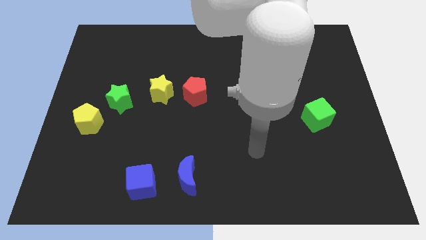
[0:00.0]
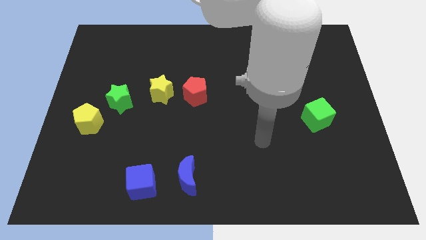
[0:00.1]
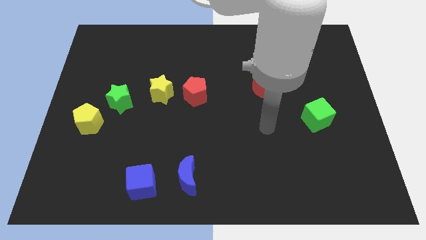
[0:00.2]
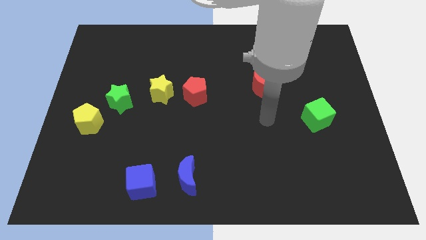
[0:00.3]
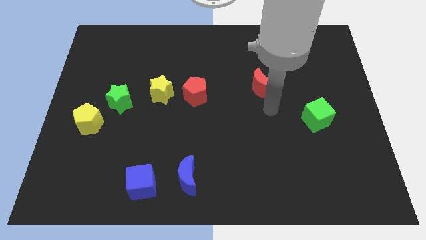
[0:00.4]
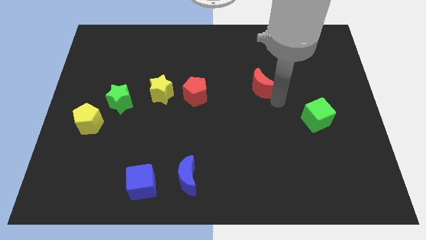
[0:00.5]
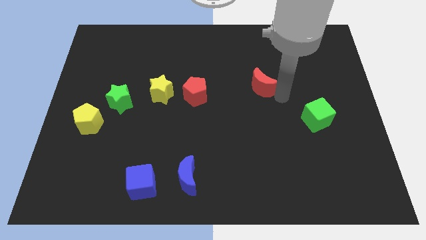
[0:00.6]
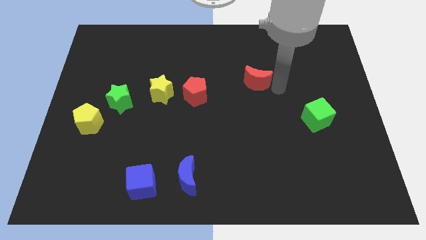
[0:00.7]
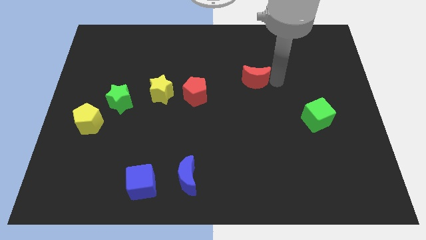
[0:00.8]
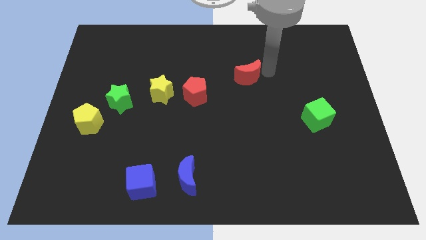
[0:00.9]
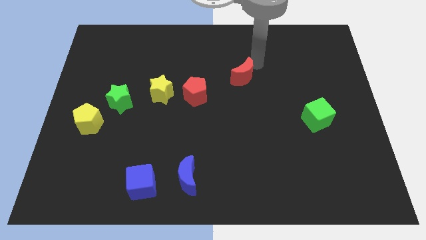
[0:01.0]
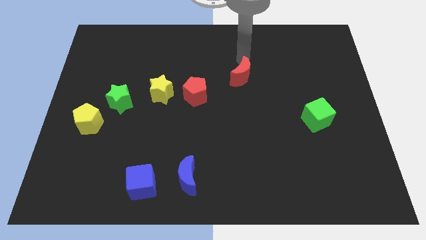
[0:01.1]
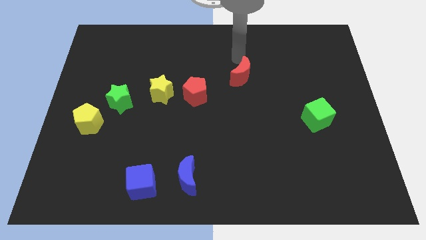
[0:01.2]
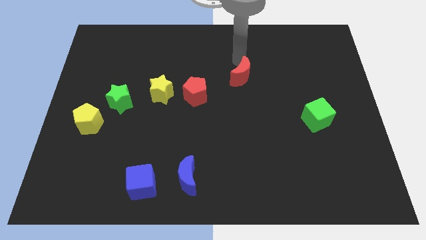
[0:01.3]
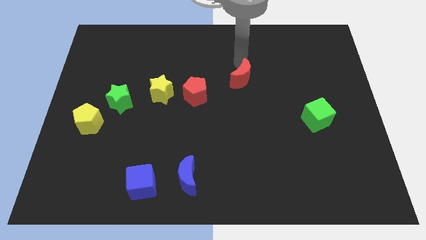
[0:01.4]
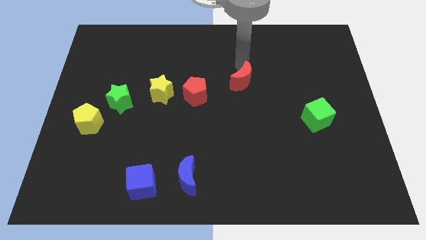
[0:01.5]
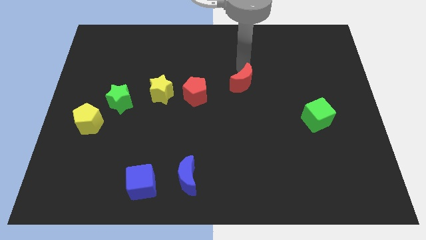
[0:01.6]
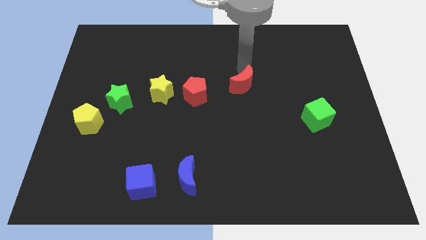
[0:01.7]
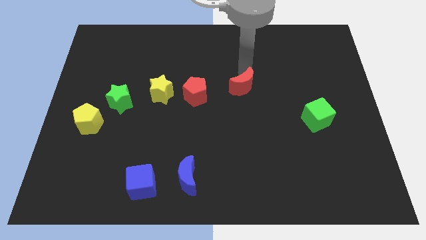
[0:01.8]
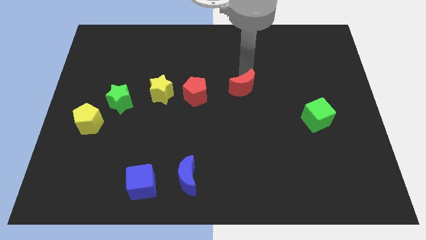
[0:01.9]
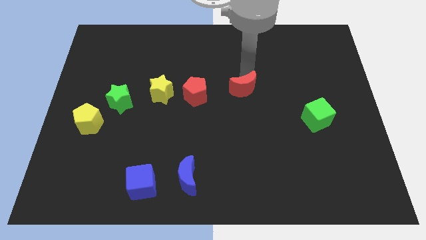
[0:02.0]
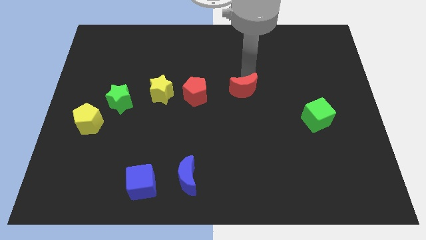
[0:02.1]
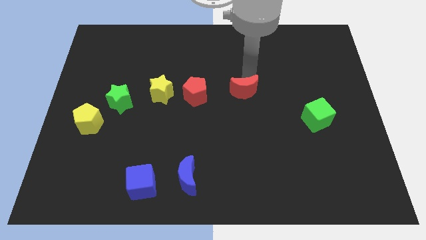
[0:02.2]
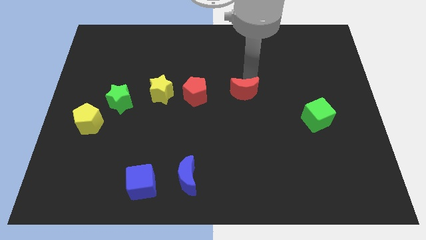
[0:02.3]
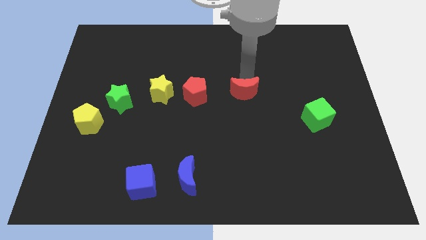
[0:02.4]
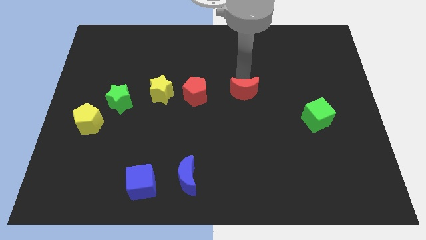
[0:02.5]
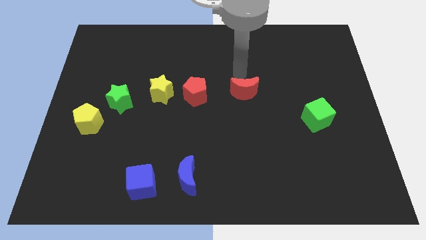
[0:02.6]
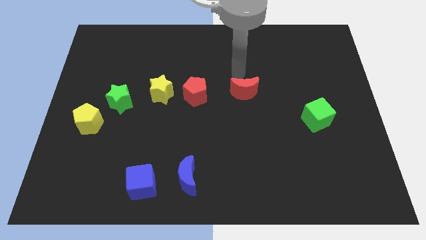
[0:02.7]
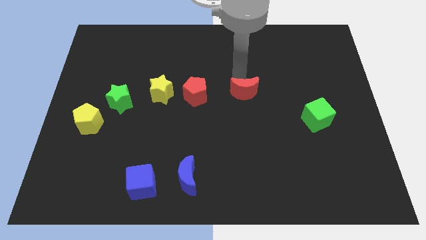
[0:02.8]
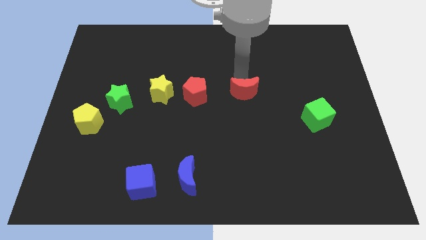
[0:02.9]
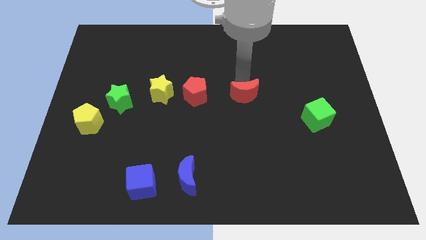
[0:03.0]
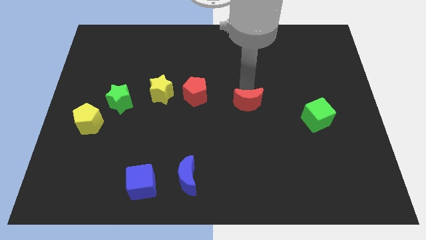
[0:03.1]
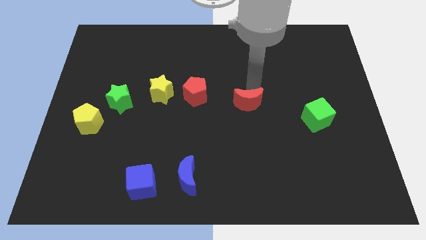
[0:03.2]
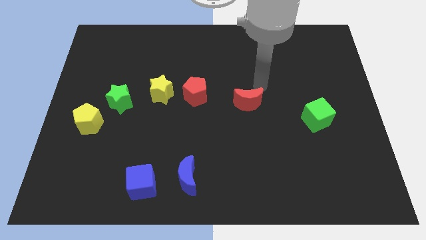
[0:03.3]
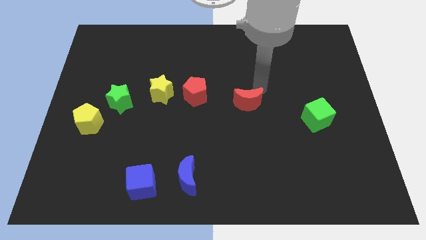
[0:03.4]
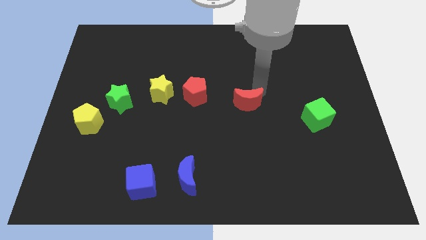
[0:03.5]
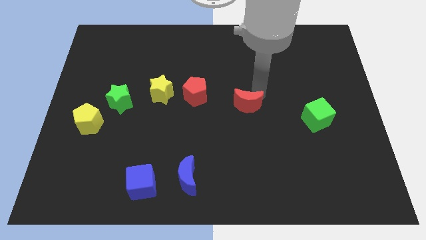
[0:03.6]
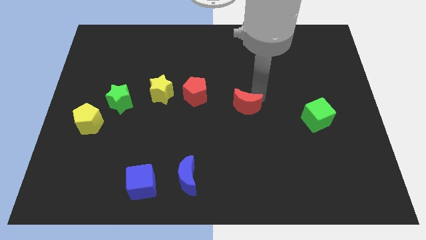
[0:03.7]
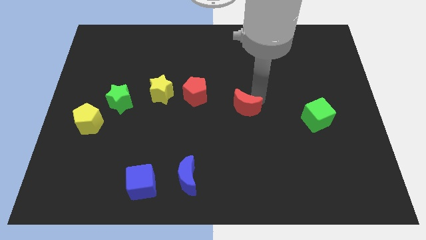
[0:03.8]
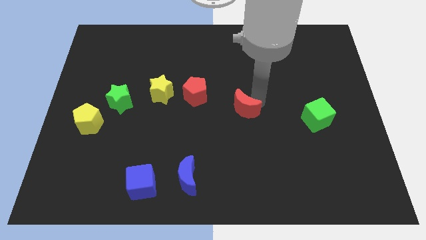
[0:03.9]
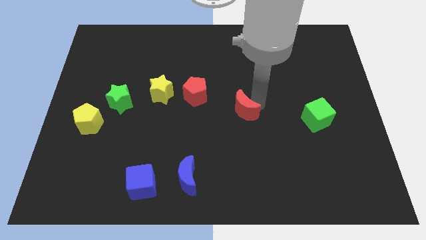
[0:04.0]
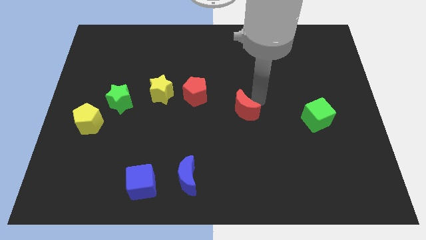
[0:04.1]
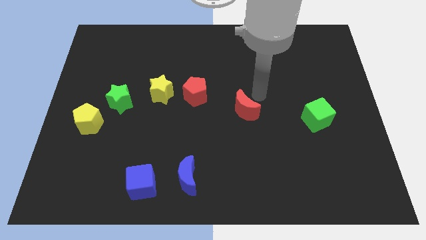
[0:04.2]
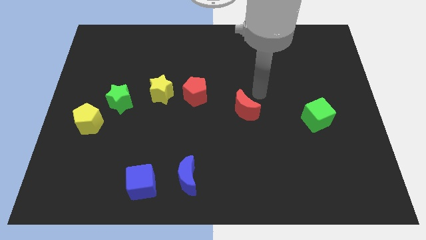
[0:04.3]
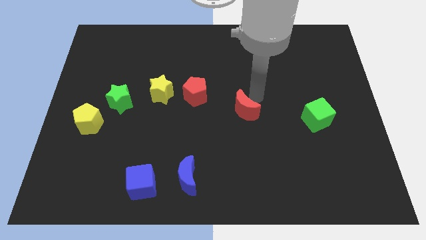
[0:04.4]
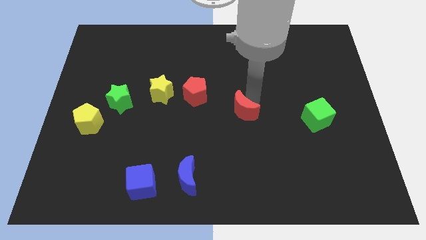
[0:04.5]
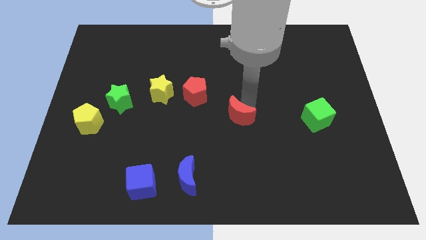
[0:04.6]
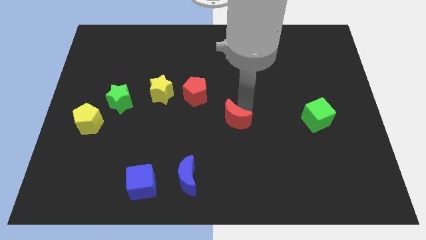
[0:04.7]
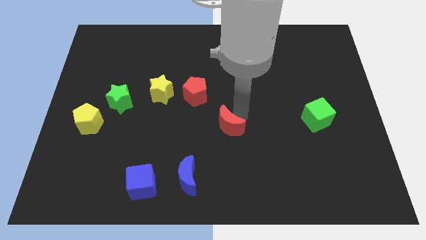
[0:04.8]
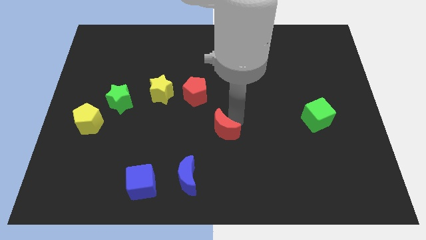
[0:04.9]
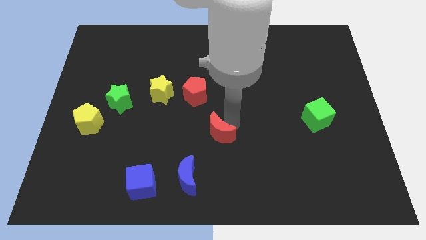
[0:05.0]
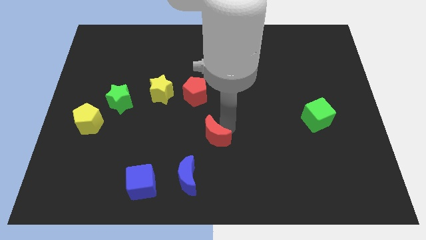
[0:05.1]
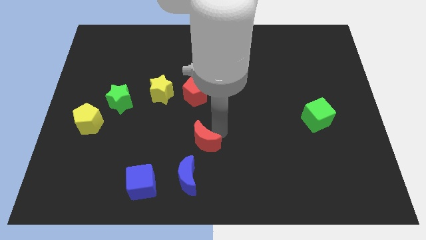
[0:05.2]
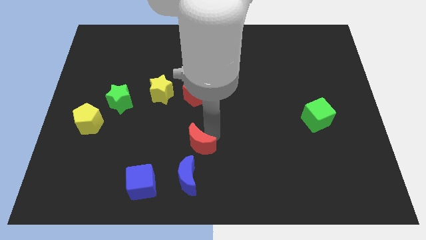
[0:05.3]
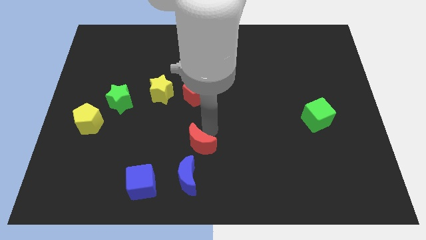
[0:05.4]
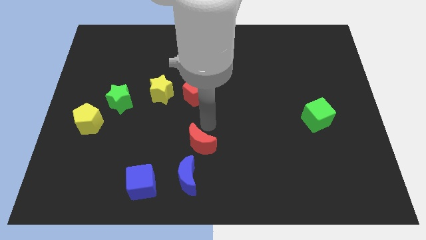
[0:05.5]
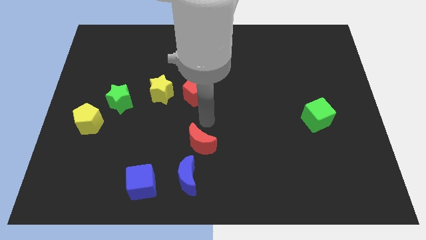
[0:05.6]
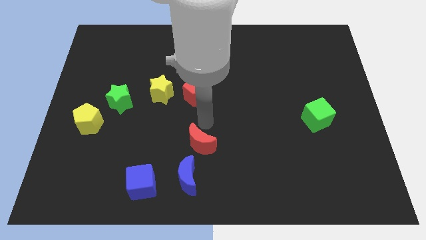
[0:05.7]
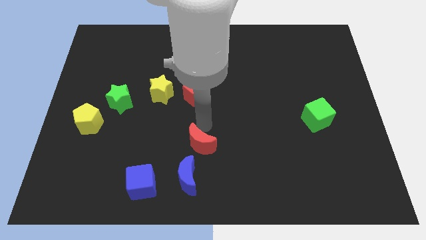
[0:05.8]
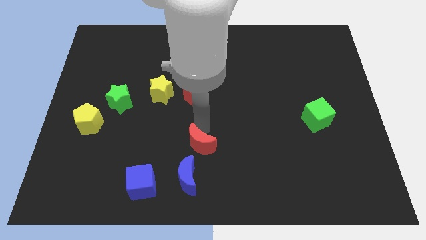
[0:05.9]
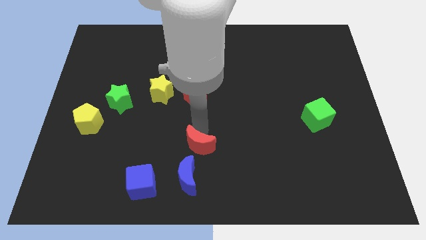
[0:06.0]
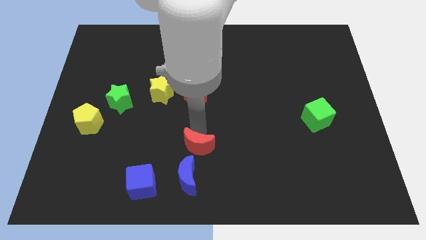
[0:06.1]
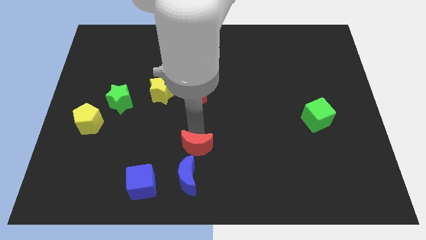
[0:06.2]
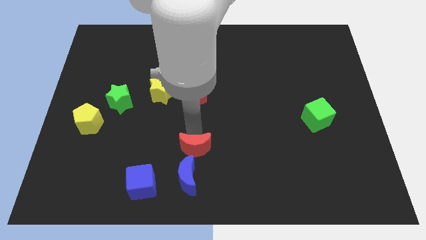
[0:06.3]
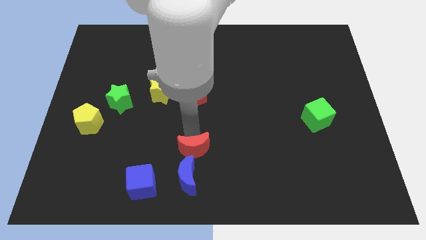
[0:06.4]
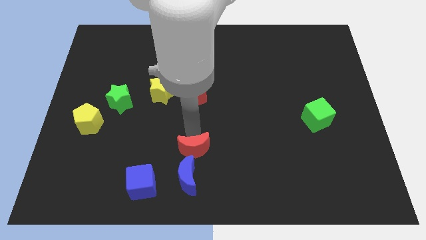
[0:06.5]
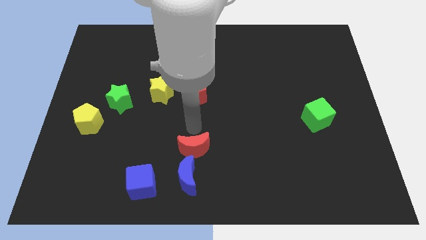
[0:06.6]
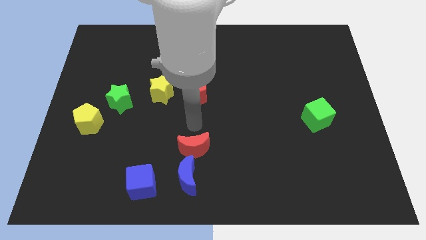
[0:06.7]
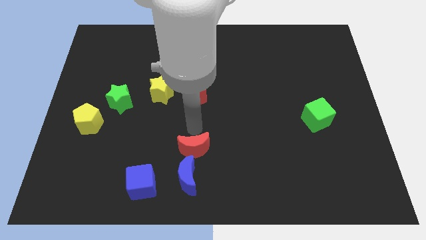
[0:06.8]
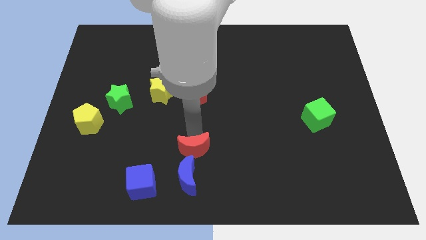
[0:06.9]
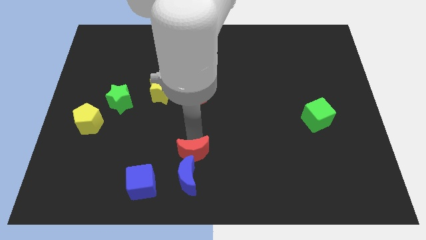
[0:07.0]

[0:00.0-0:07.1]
slide the red moon next to the blue moon
